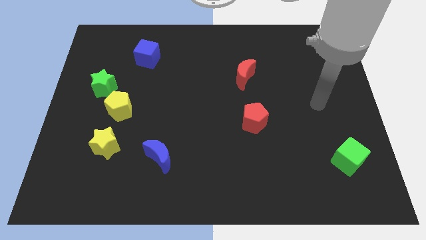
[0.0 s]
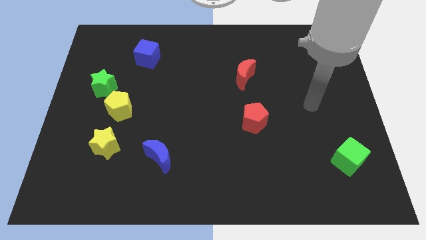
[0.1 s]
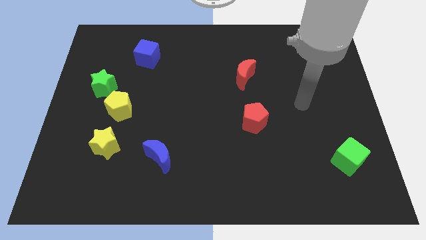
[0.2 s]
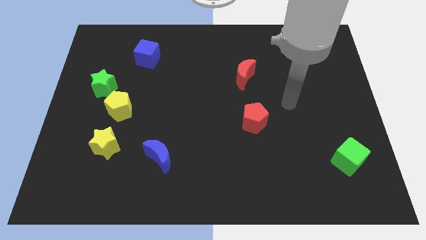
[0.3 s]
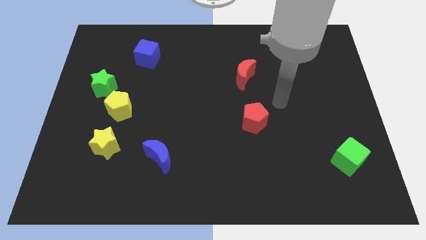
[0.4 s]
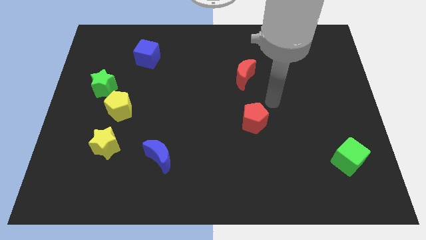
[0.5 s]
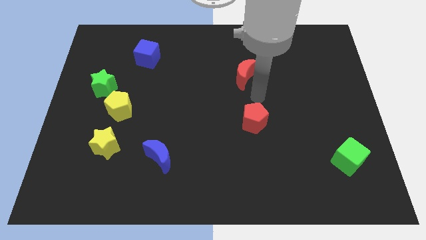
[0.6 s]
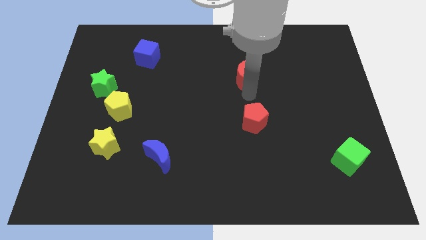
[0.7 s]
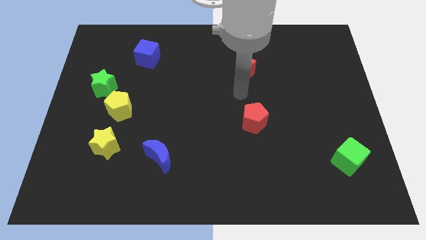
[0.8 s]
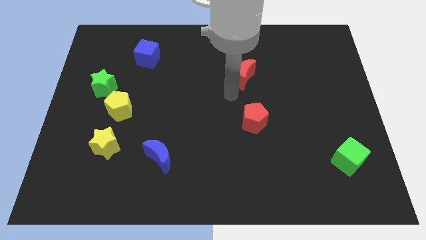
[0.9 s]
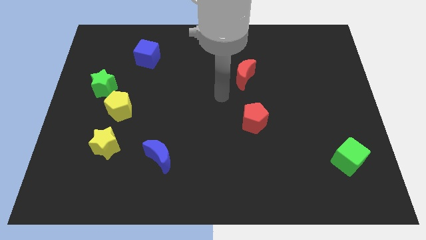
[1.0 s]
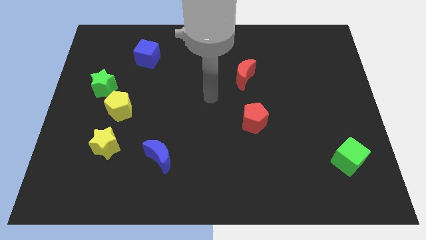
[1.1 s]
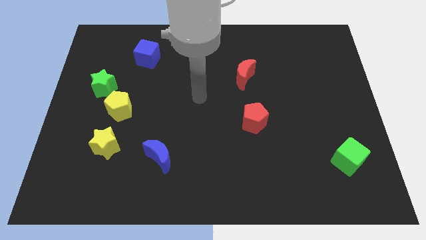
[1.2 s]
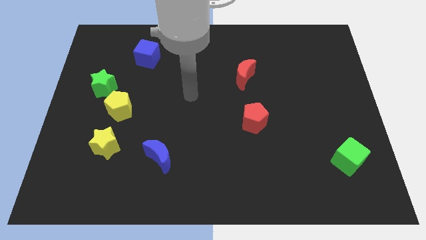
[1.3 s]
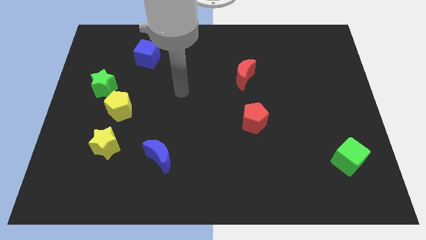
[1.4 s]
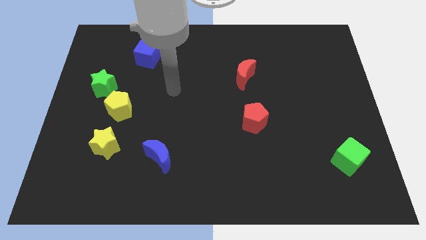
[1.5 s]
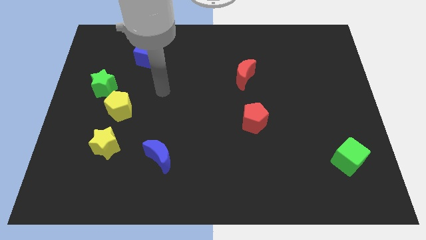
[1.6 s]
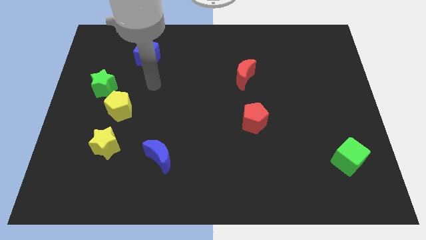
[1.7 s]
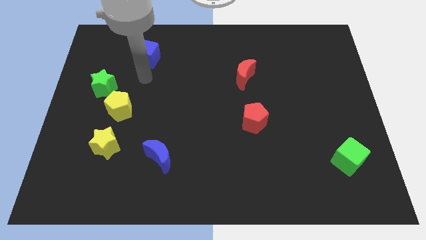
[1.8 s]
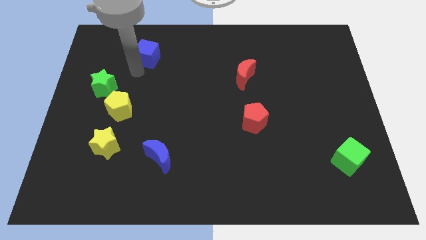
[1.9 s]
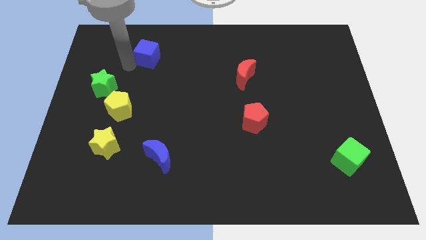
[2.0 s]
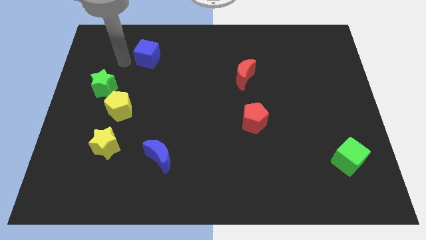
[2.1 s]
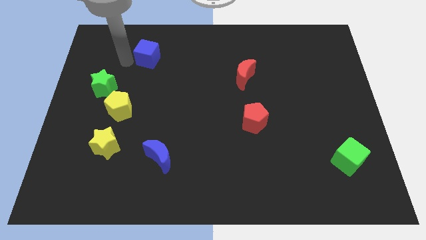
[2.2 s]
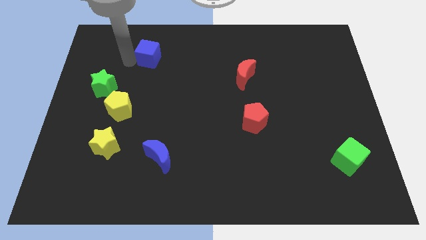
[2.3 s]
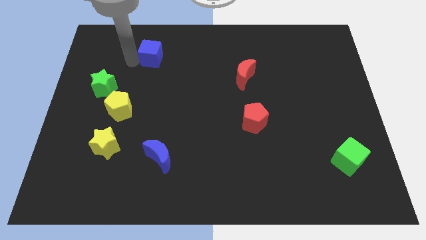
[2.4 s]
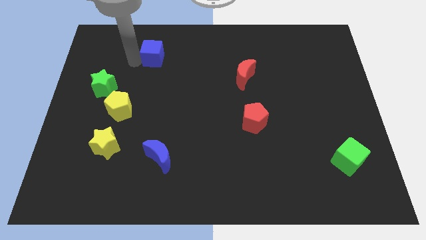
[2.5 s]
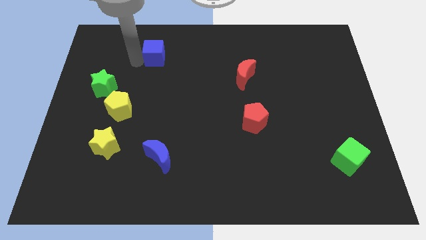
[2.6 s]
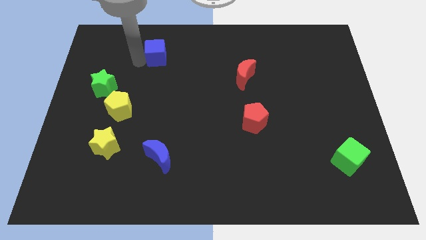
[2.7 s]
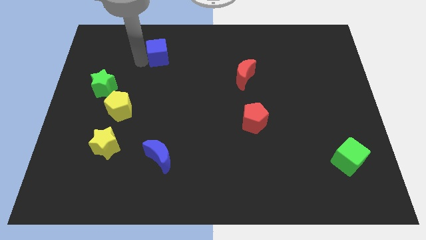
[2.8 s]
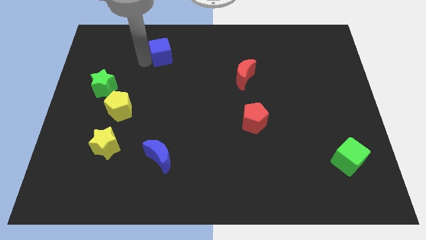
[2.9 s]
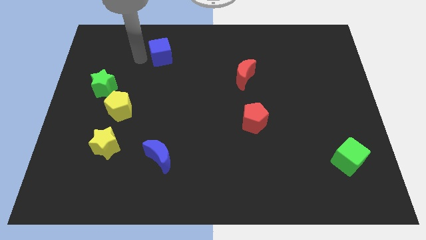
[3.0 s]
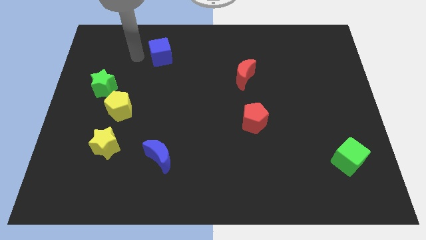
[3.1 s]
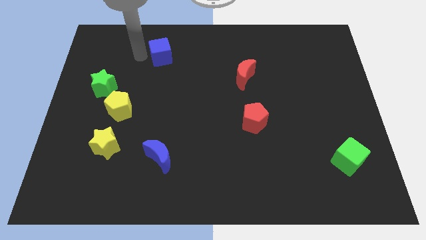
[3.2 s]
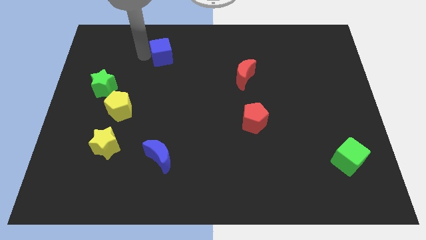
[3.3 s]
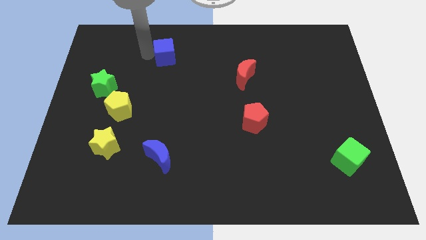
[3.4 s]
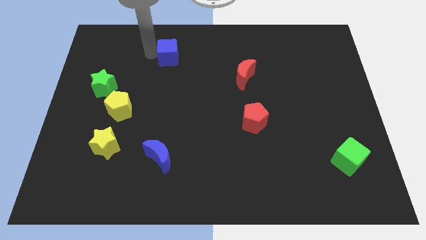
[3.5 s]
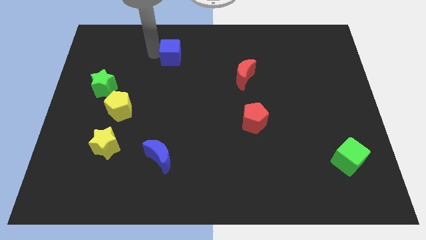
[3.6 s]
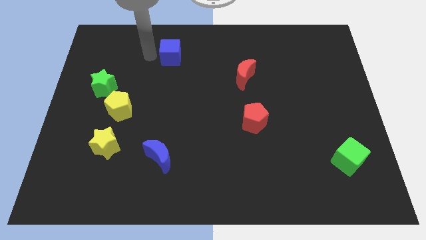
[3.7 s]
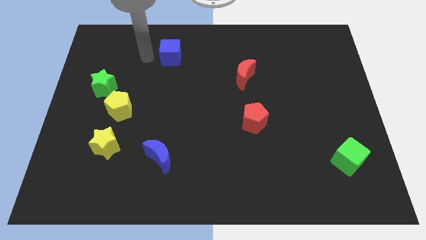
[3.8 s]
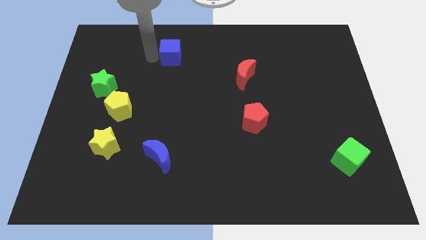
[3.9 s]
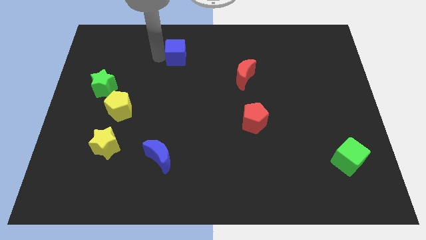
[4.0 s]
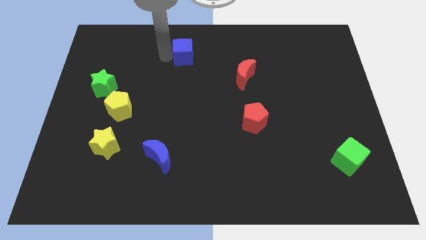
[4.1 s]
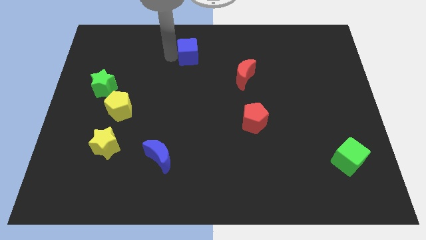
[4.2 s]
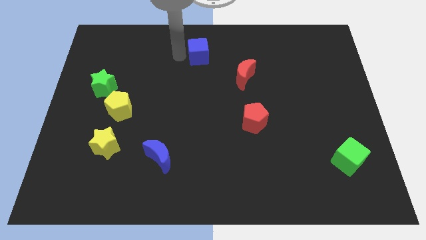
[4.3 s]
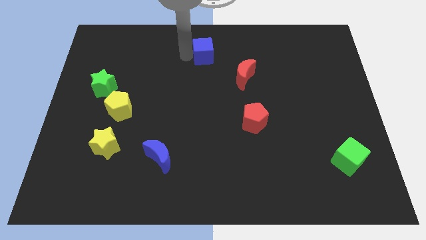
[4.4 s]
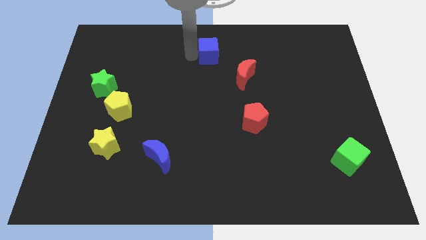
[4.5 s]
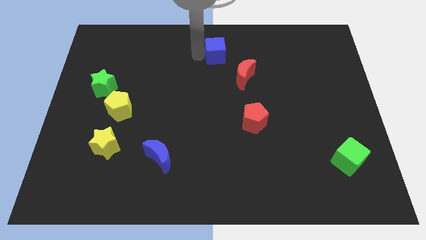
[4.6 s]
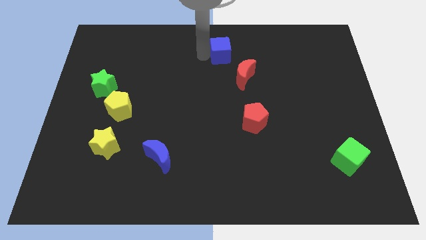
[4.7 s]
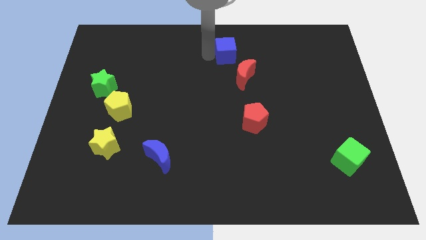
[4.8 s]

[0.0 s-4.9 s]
move the blue cube to the right

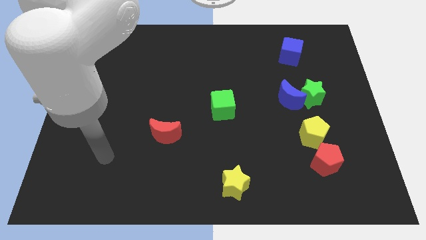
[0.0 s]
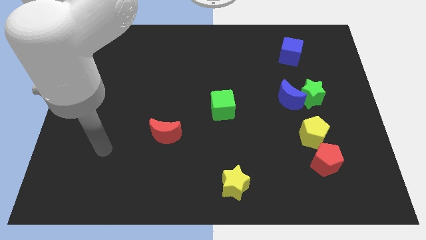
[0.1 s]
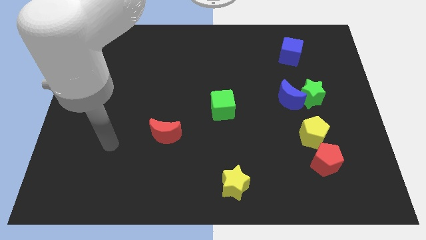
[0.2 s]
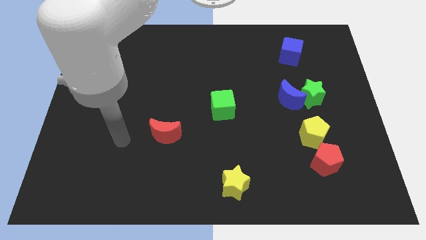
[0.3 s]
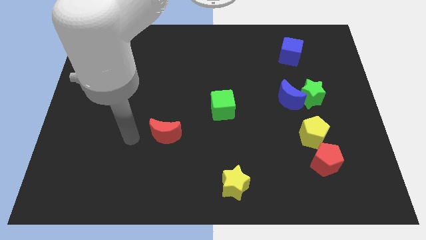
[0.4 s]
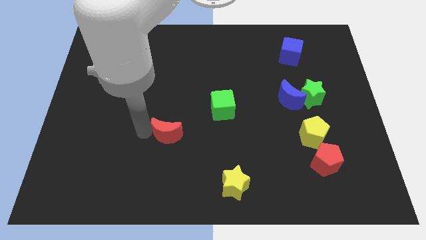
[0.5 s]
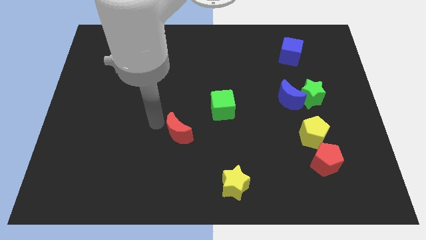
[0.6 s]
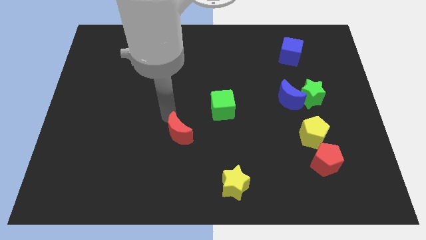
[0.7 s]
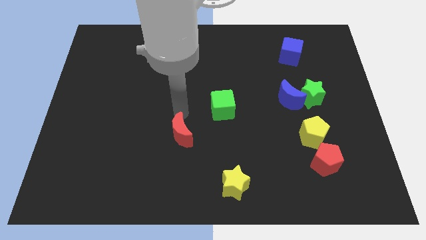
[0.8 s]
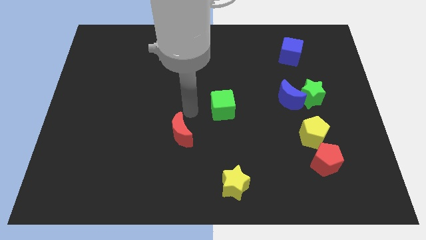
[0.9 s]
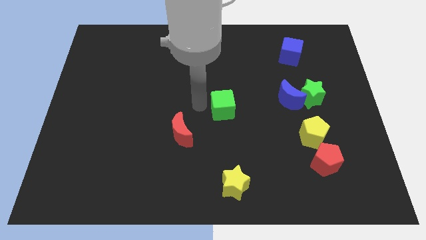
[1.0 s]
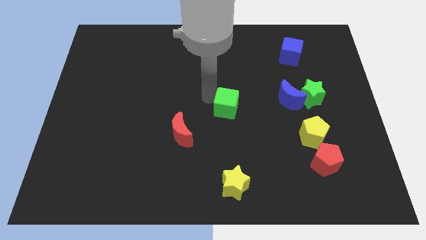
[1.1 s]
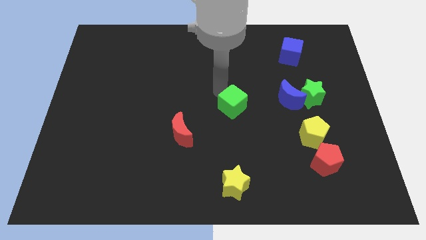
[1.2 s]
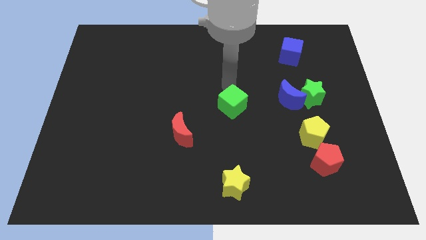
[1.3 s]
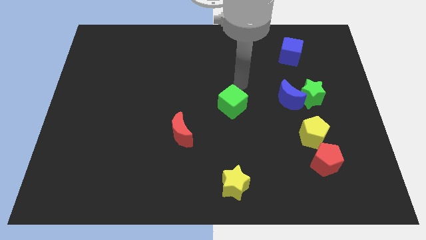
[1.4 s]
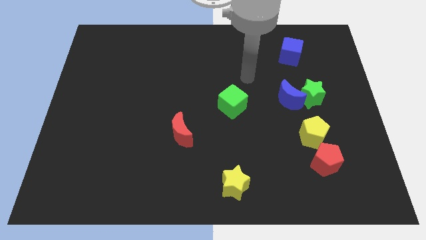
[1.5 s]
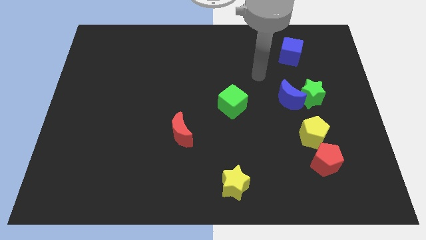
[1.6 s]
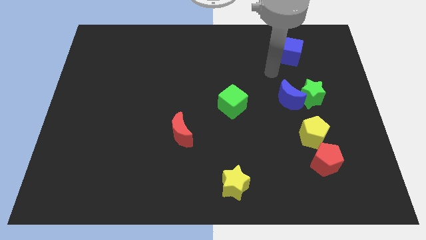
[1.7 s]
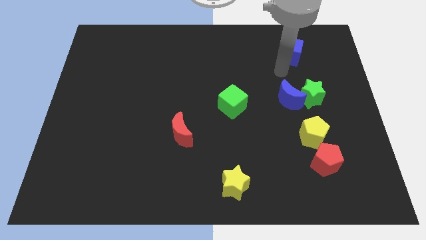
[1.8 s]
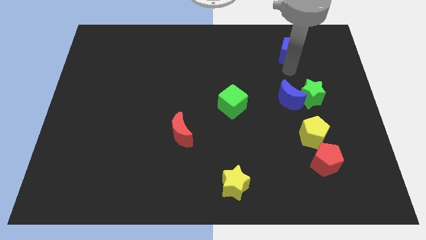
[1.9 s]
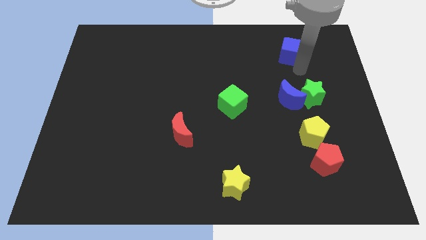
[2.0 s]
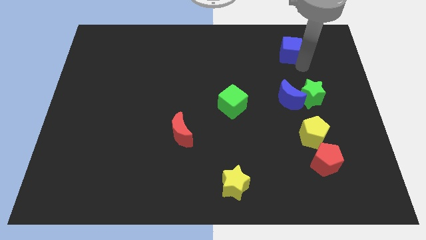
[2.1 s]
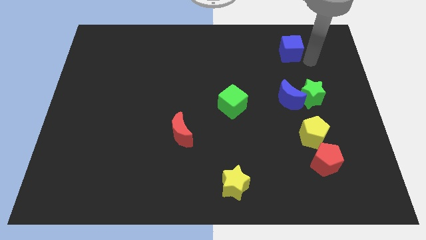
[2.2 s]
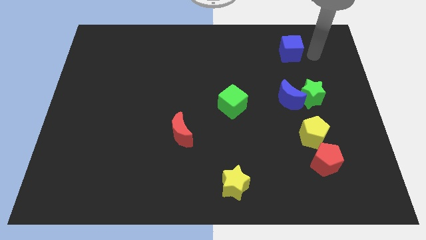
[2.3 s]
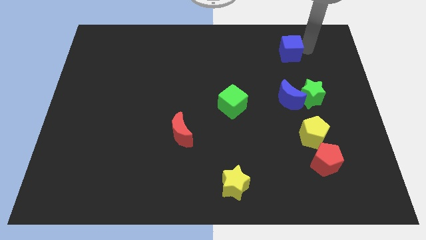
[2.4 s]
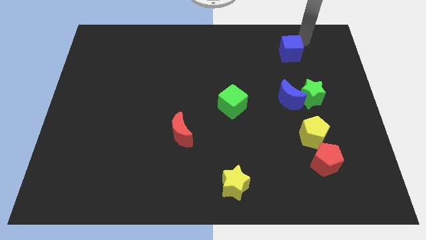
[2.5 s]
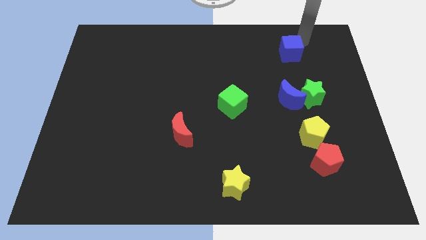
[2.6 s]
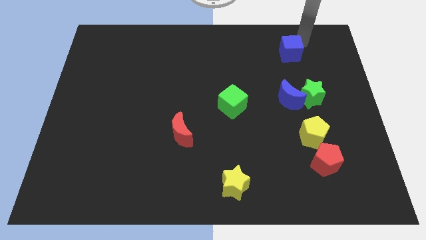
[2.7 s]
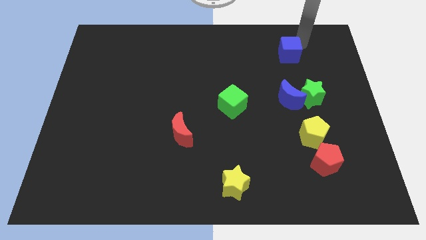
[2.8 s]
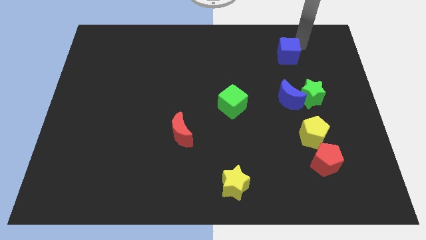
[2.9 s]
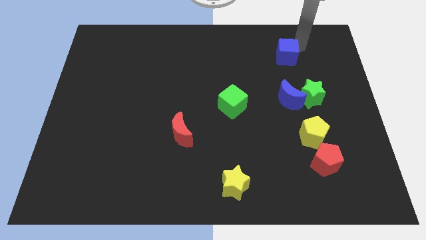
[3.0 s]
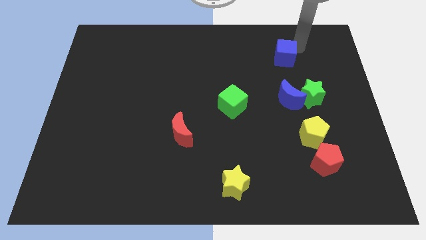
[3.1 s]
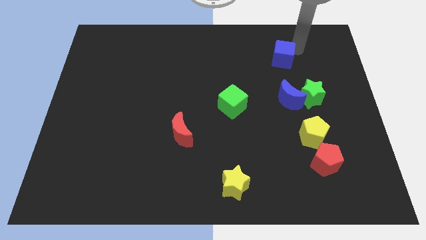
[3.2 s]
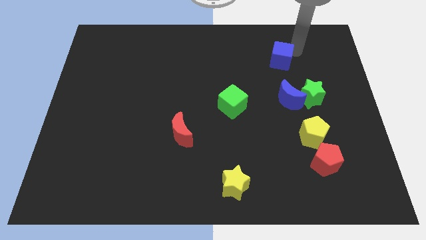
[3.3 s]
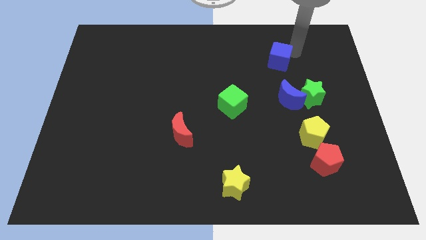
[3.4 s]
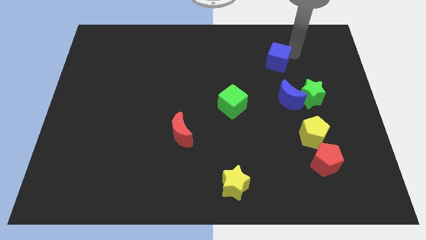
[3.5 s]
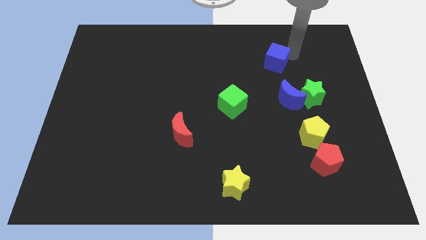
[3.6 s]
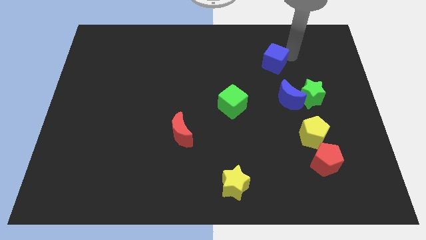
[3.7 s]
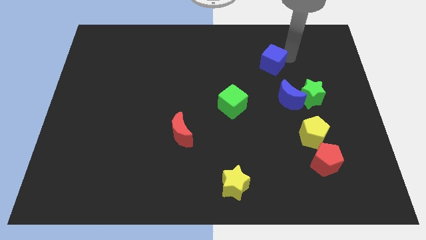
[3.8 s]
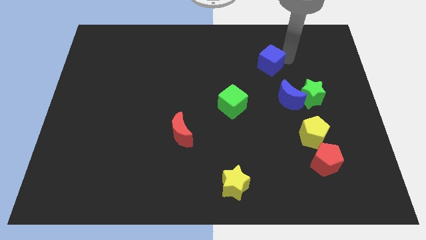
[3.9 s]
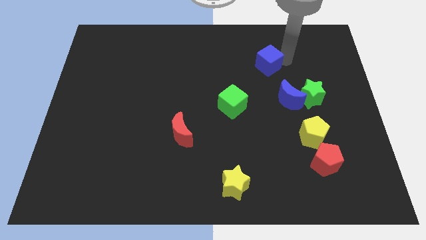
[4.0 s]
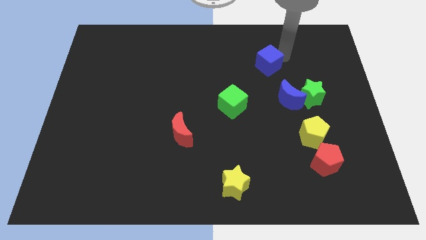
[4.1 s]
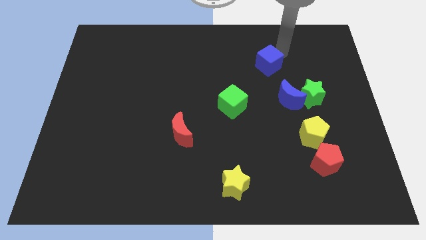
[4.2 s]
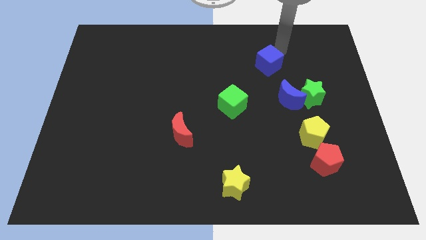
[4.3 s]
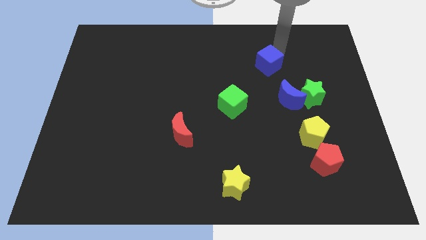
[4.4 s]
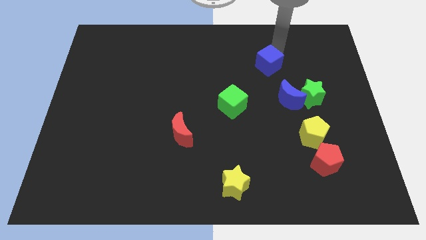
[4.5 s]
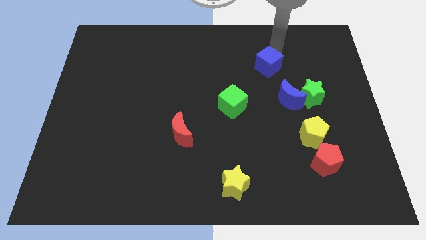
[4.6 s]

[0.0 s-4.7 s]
move the blue cube downwards and left a little bit
